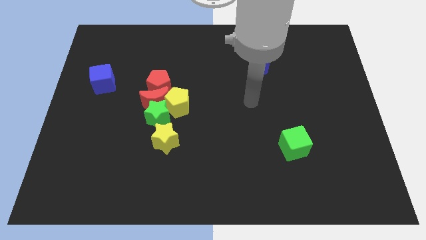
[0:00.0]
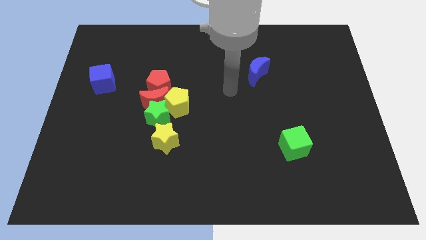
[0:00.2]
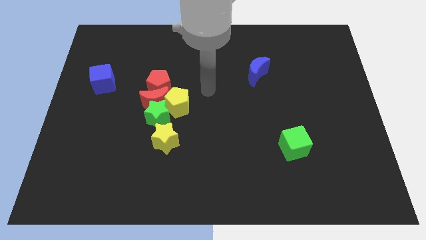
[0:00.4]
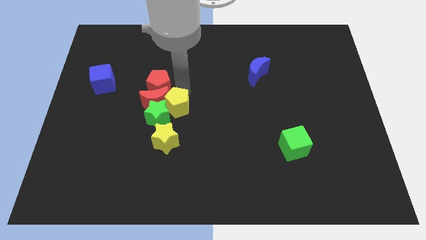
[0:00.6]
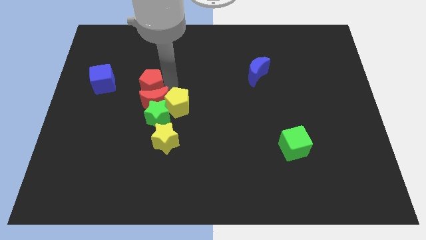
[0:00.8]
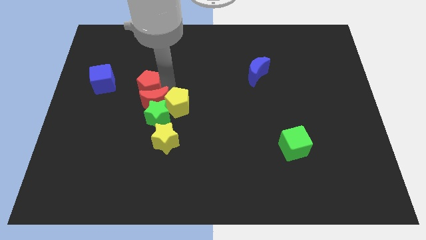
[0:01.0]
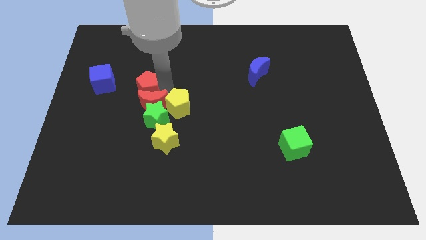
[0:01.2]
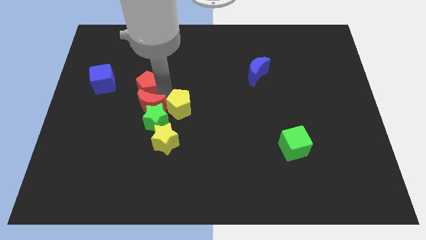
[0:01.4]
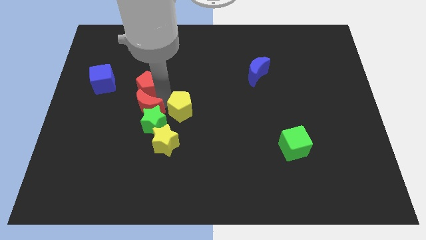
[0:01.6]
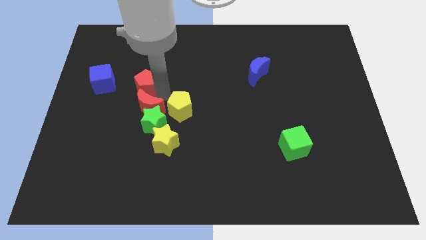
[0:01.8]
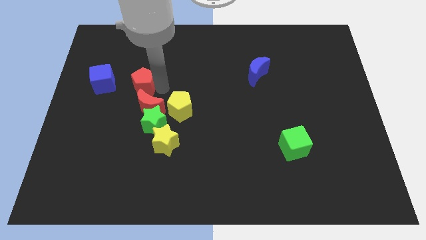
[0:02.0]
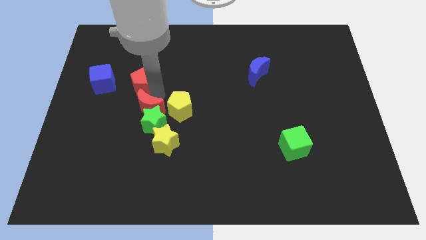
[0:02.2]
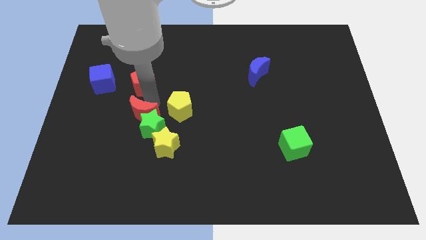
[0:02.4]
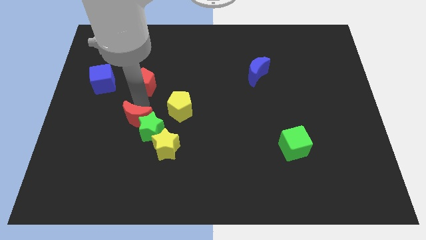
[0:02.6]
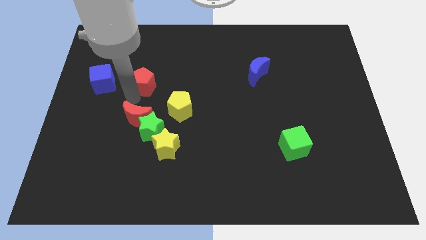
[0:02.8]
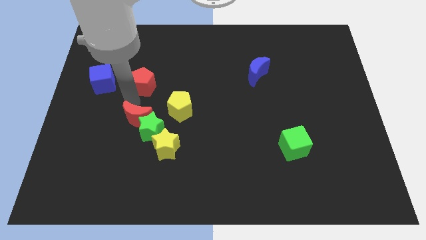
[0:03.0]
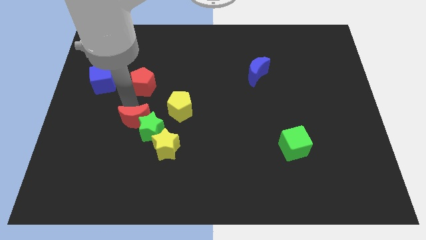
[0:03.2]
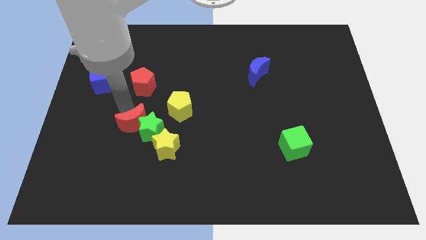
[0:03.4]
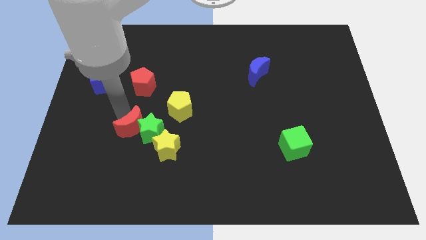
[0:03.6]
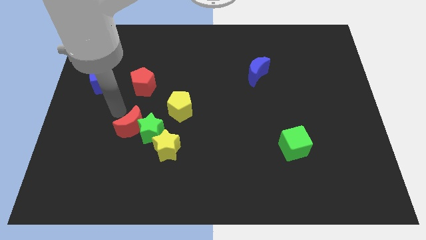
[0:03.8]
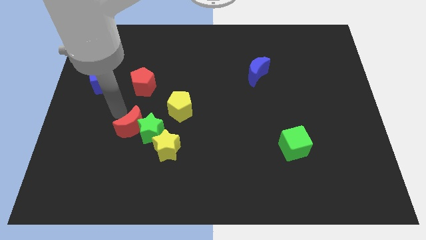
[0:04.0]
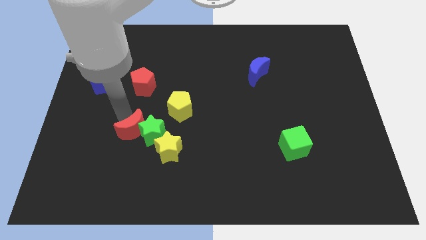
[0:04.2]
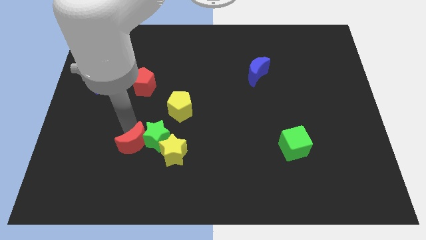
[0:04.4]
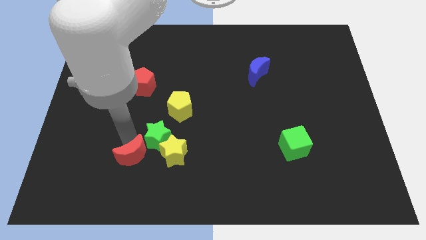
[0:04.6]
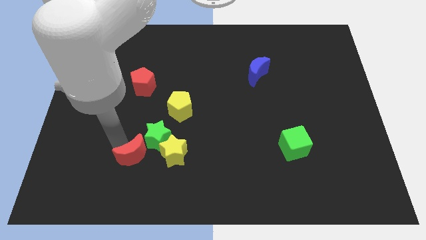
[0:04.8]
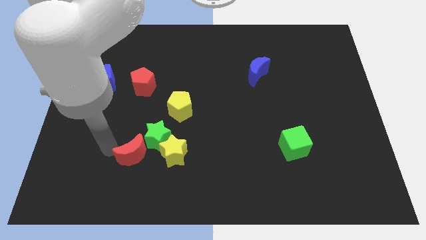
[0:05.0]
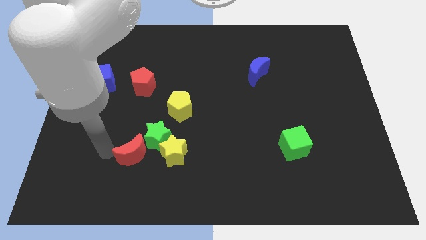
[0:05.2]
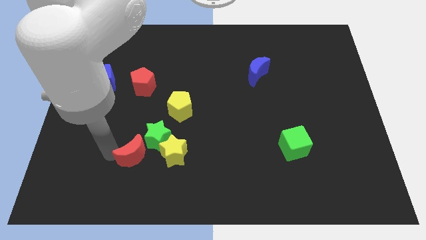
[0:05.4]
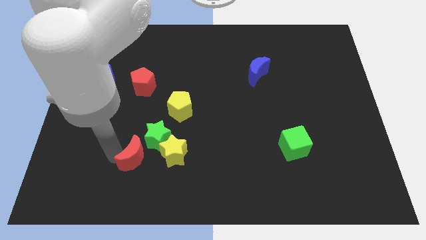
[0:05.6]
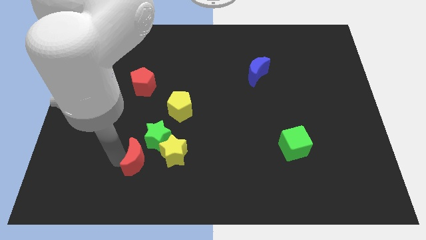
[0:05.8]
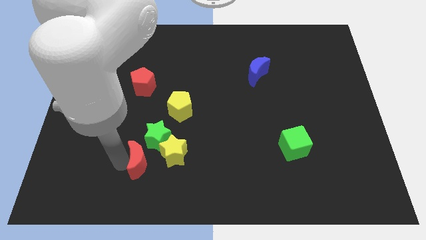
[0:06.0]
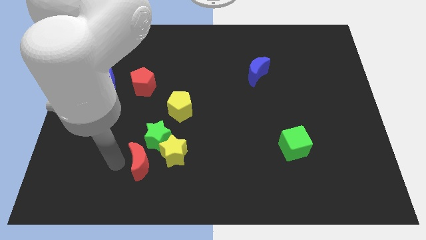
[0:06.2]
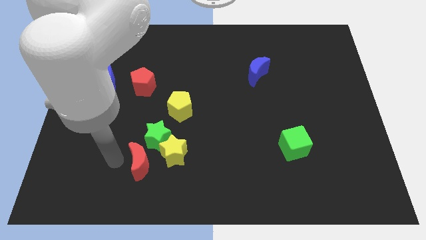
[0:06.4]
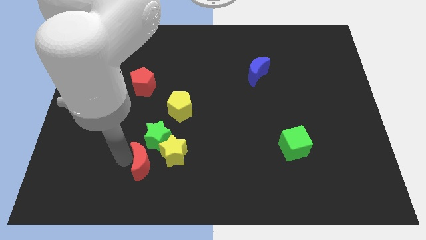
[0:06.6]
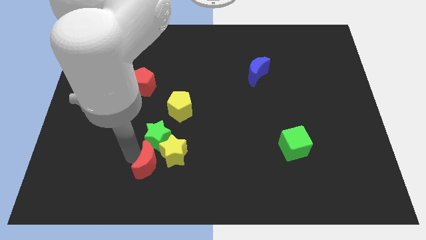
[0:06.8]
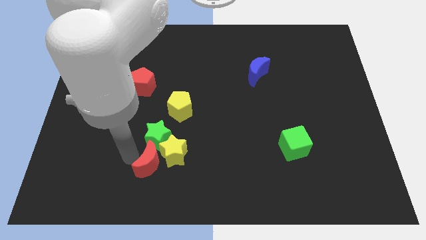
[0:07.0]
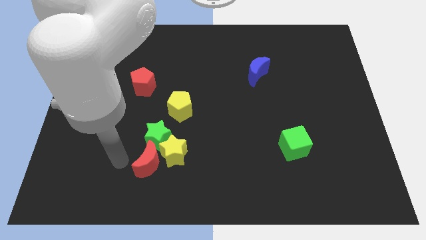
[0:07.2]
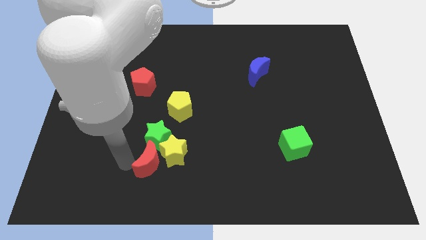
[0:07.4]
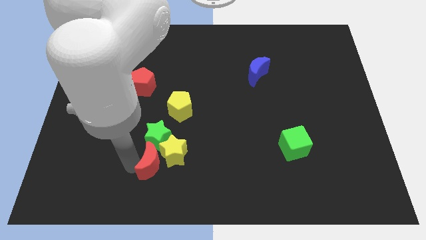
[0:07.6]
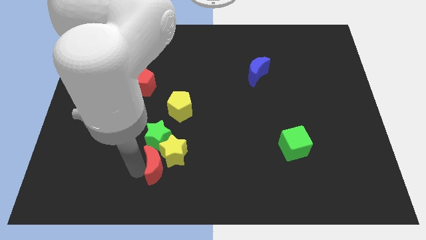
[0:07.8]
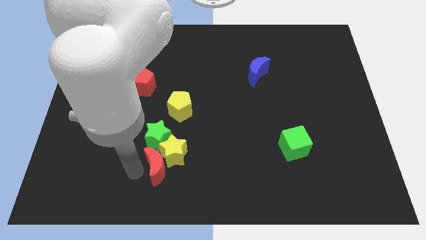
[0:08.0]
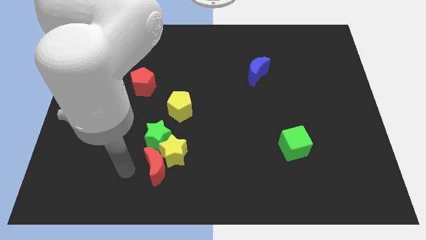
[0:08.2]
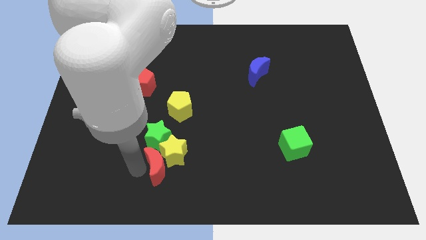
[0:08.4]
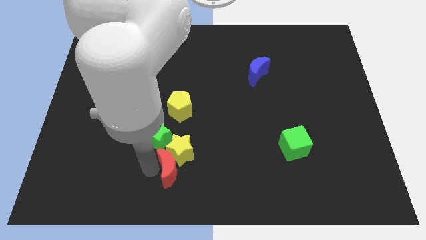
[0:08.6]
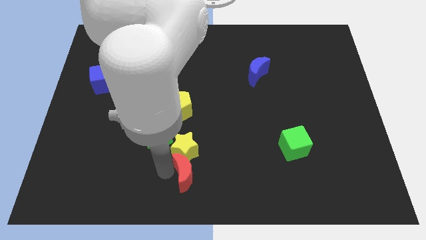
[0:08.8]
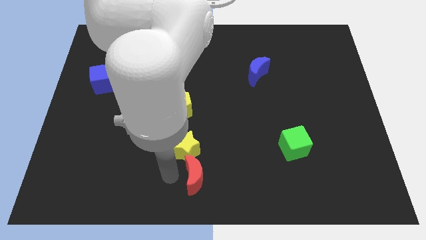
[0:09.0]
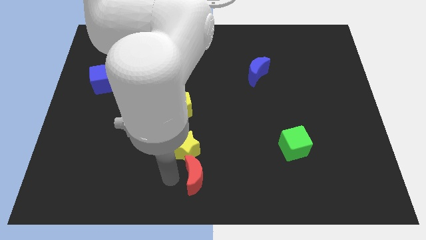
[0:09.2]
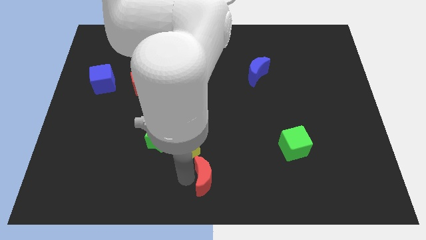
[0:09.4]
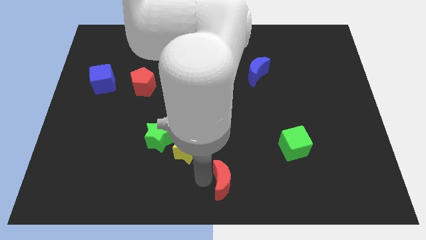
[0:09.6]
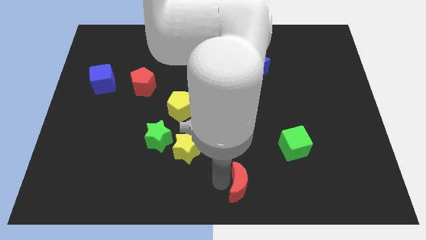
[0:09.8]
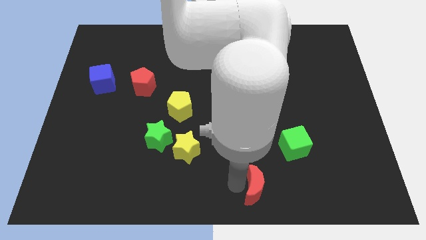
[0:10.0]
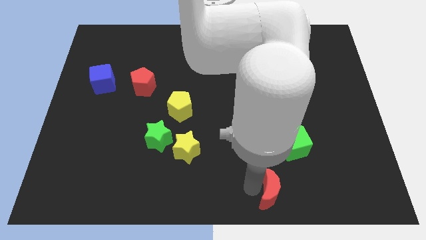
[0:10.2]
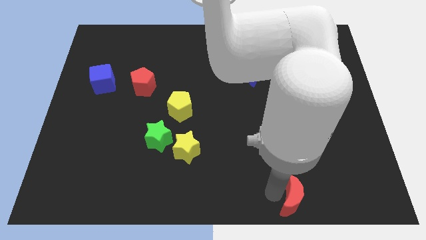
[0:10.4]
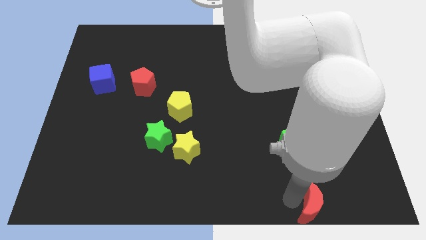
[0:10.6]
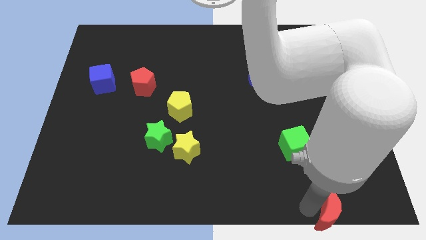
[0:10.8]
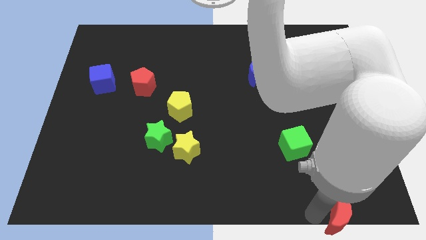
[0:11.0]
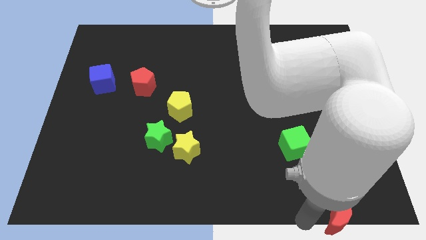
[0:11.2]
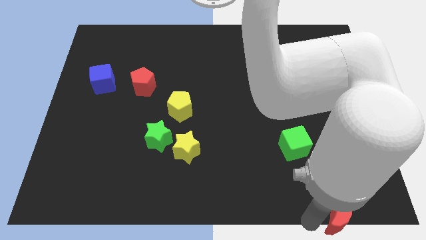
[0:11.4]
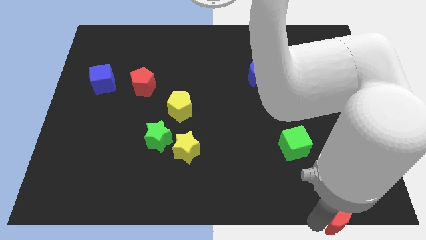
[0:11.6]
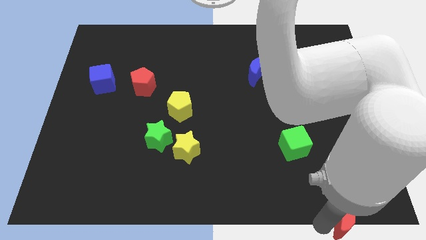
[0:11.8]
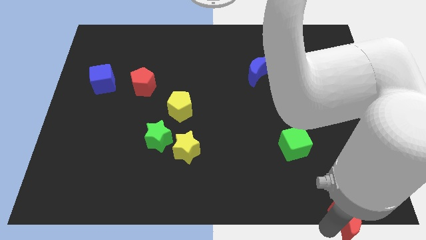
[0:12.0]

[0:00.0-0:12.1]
move the red moon to the bottom right
